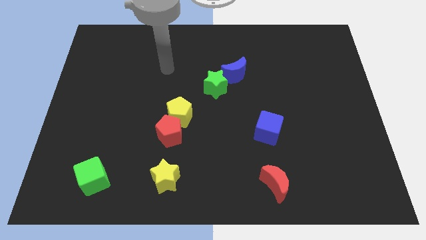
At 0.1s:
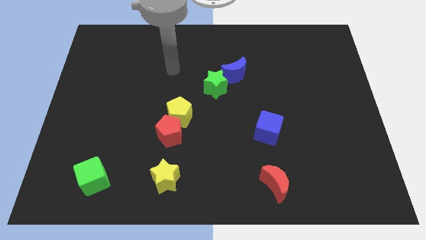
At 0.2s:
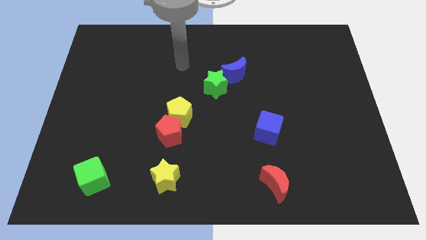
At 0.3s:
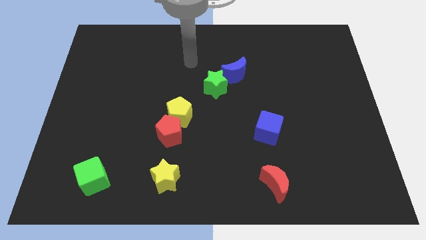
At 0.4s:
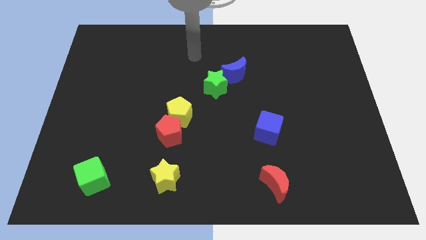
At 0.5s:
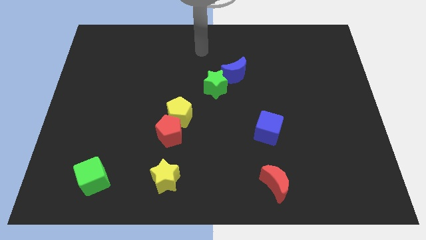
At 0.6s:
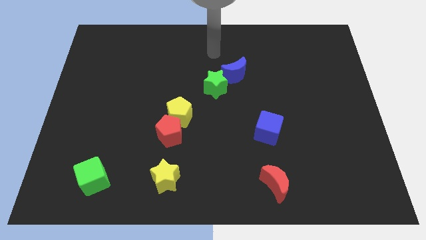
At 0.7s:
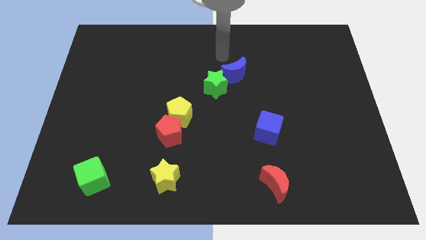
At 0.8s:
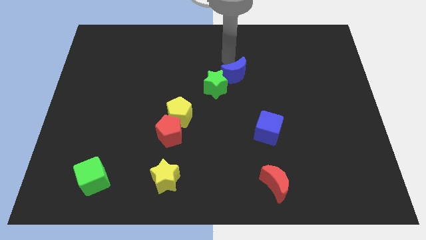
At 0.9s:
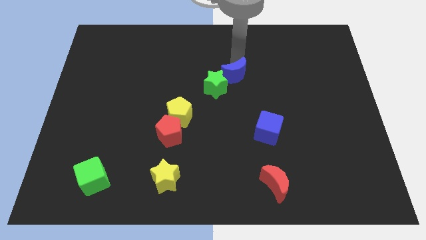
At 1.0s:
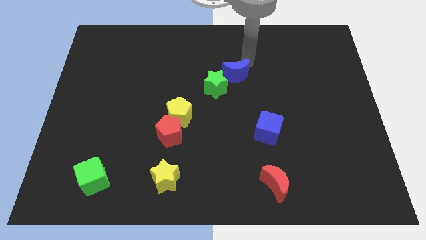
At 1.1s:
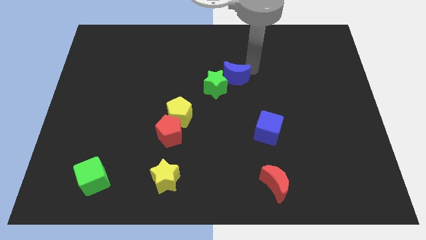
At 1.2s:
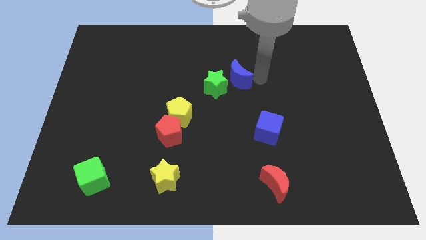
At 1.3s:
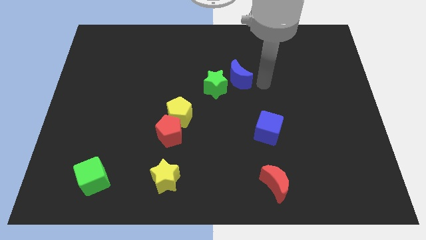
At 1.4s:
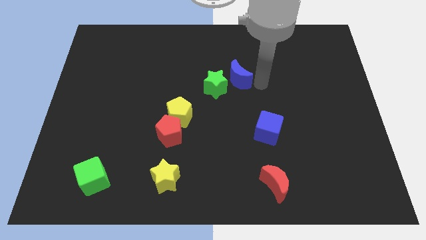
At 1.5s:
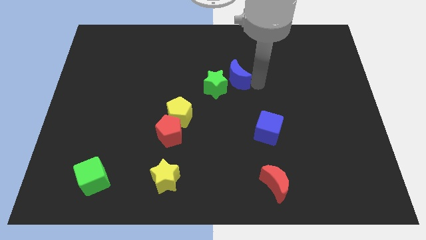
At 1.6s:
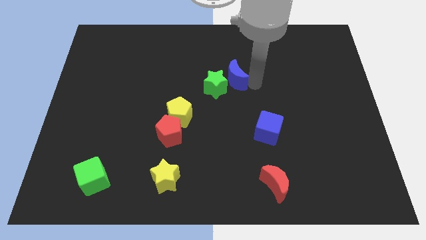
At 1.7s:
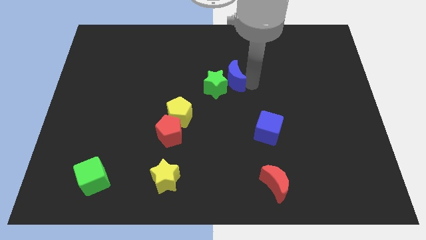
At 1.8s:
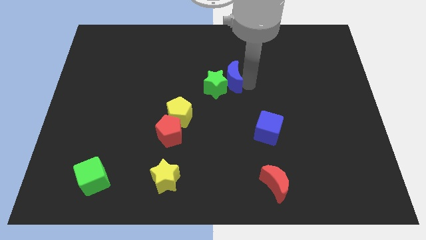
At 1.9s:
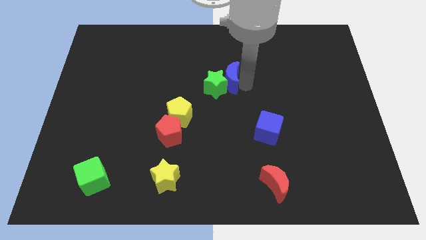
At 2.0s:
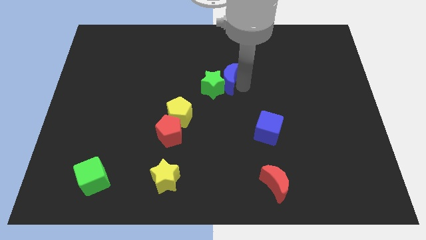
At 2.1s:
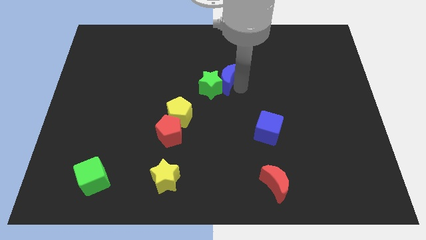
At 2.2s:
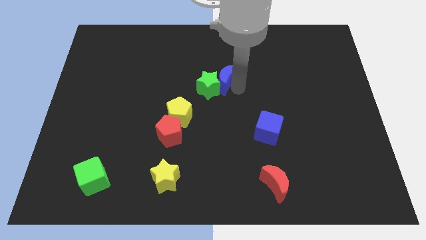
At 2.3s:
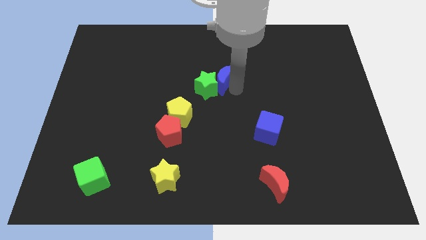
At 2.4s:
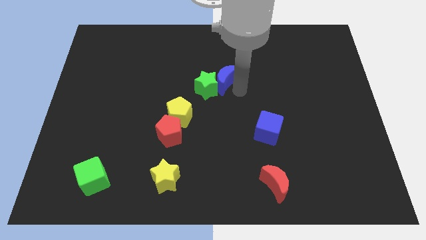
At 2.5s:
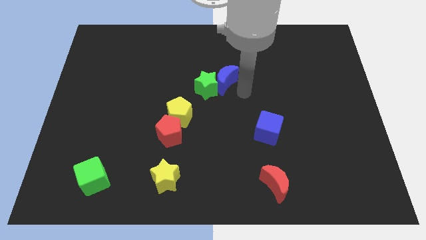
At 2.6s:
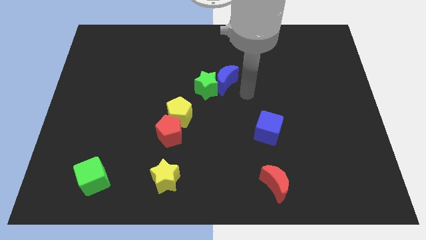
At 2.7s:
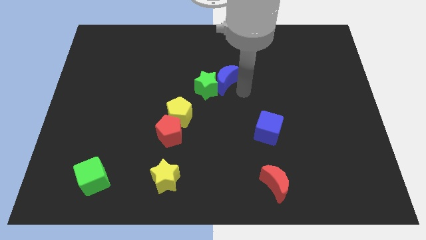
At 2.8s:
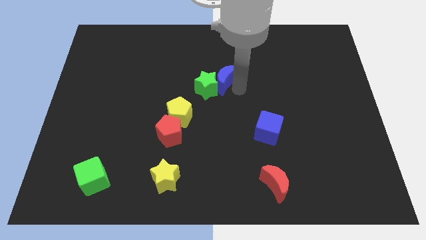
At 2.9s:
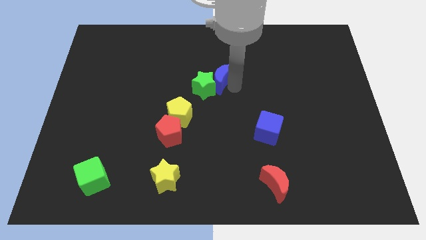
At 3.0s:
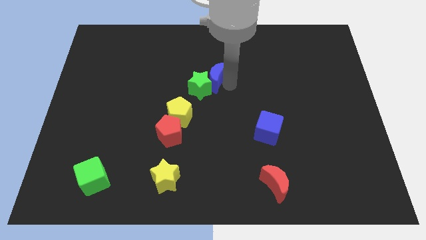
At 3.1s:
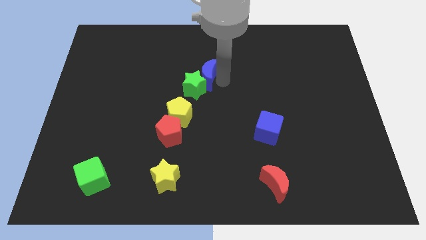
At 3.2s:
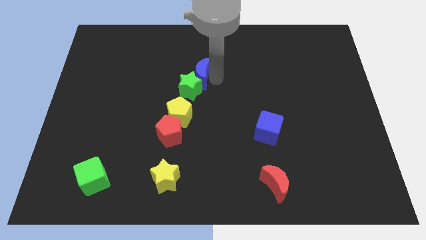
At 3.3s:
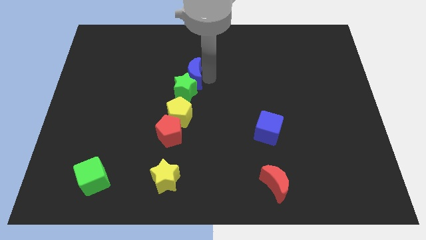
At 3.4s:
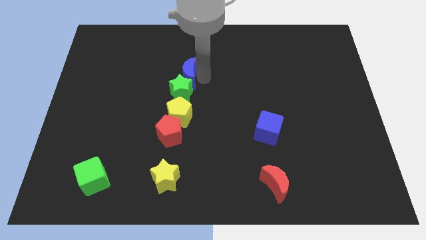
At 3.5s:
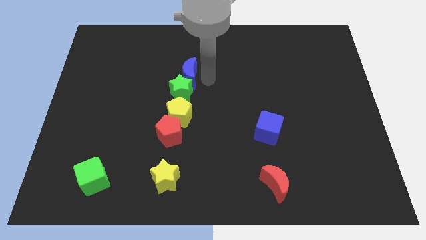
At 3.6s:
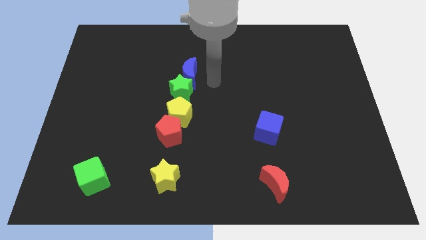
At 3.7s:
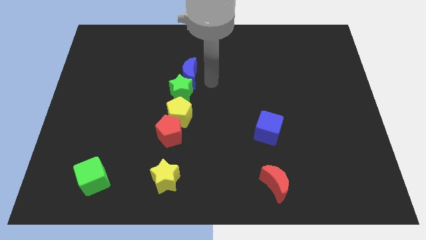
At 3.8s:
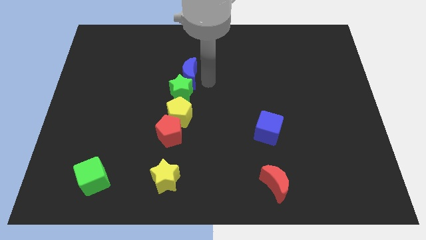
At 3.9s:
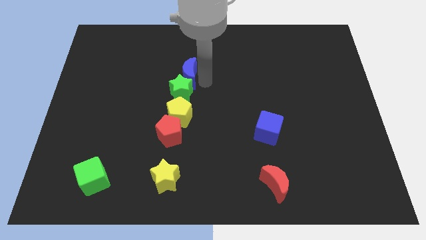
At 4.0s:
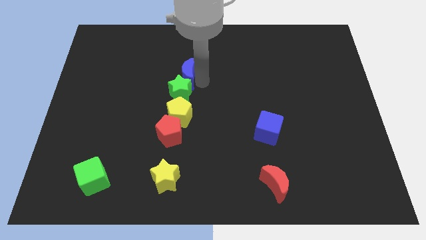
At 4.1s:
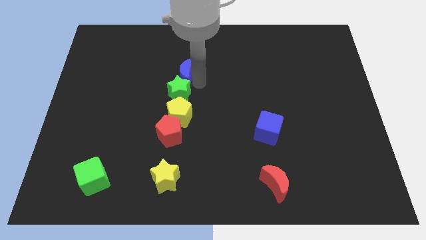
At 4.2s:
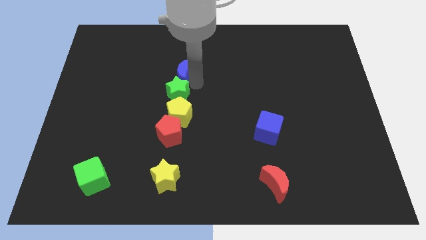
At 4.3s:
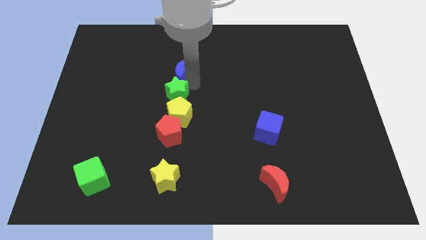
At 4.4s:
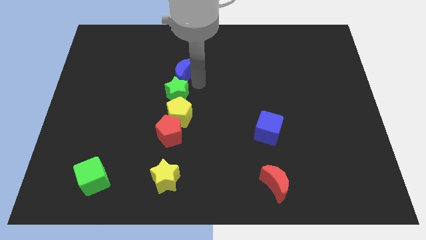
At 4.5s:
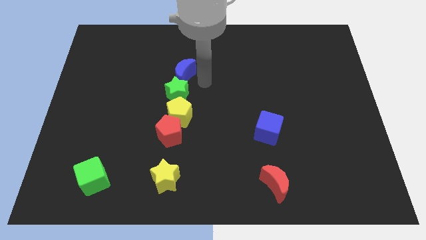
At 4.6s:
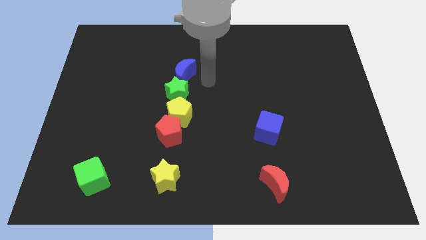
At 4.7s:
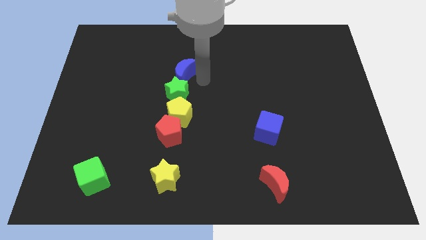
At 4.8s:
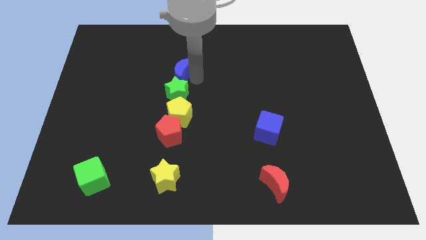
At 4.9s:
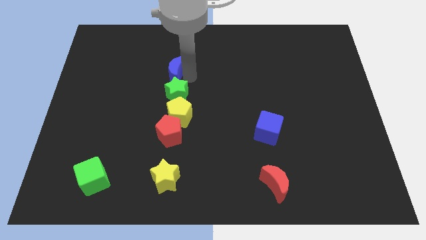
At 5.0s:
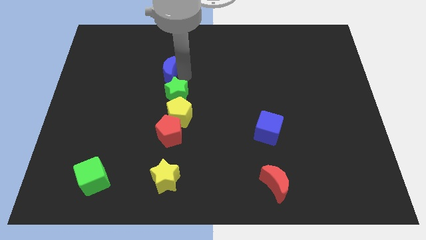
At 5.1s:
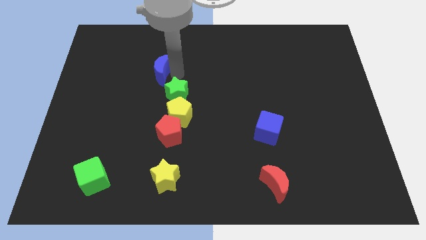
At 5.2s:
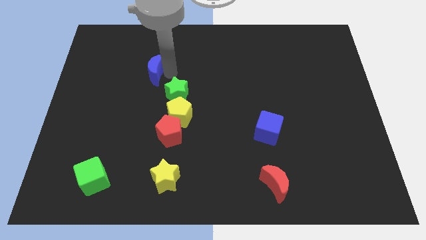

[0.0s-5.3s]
move the blue moon left

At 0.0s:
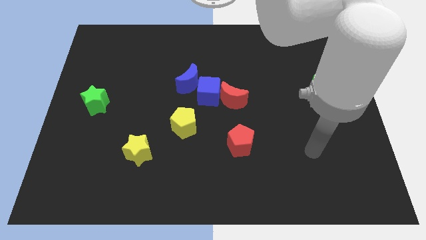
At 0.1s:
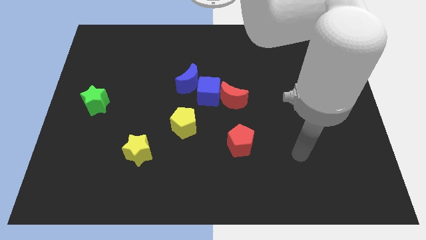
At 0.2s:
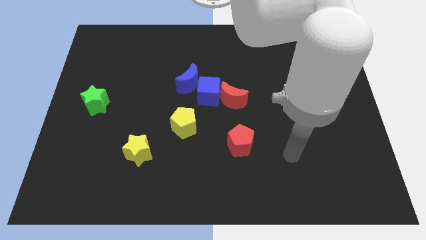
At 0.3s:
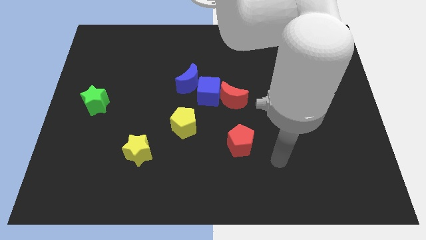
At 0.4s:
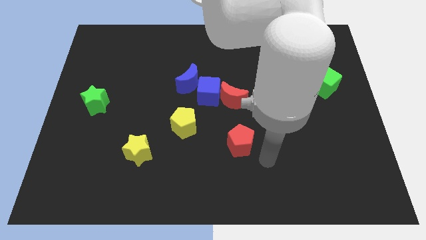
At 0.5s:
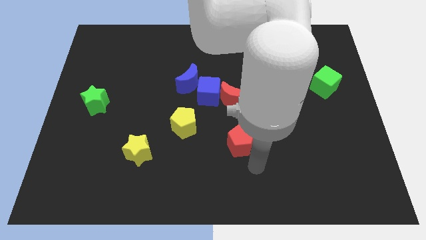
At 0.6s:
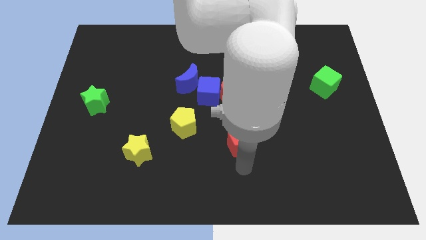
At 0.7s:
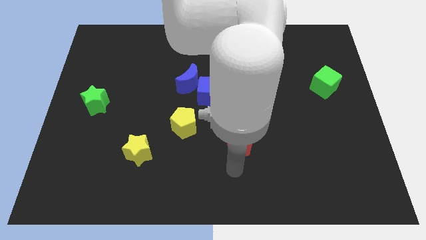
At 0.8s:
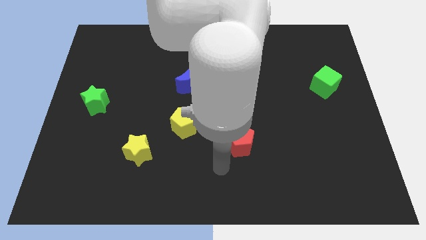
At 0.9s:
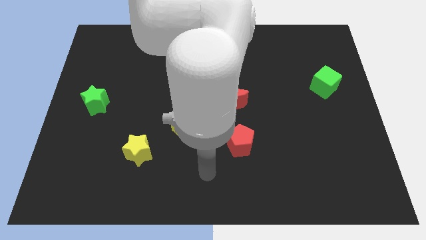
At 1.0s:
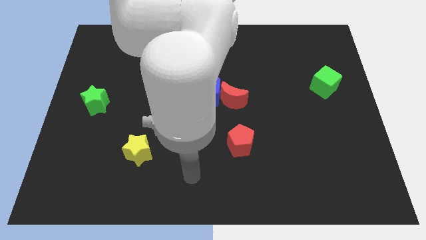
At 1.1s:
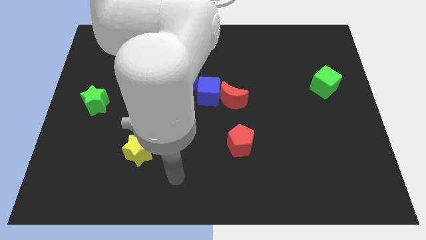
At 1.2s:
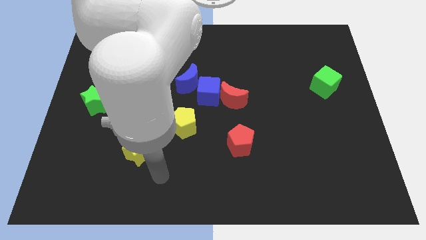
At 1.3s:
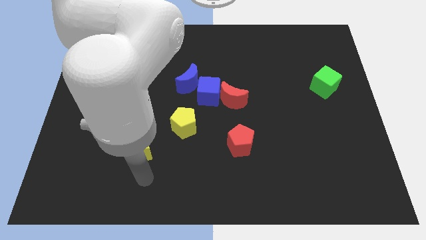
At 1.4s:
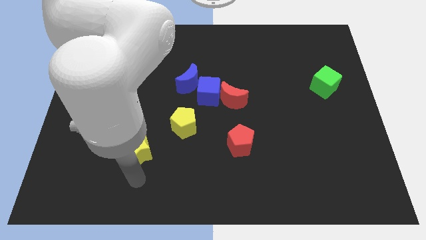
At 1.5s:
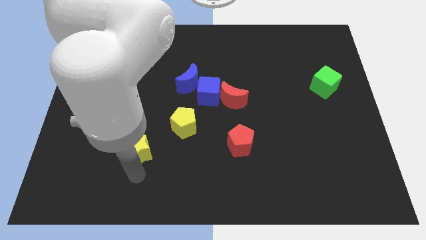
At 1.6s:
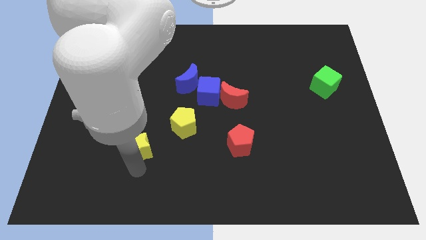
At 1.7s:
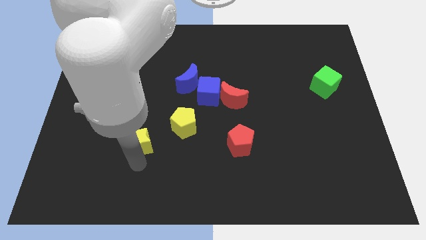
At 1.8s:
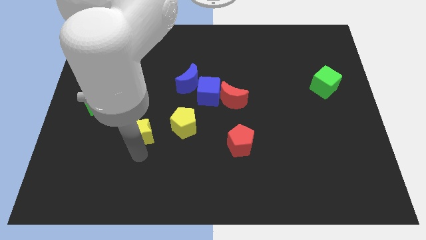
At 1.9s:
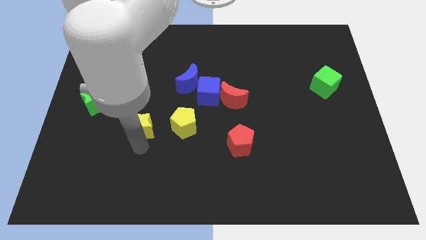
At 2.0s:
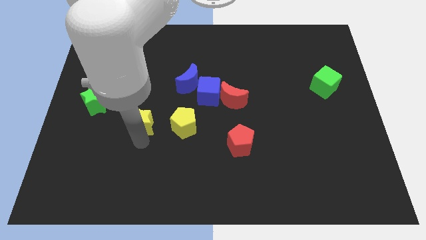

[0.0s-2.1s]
push the yellow star somewhat up

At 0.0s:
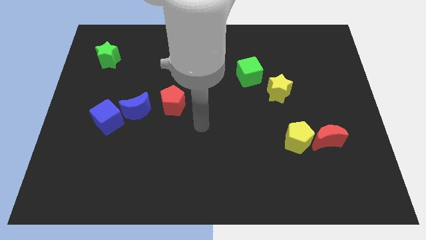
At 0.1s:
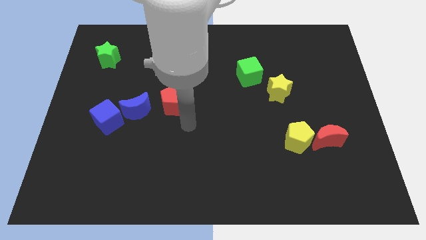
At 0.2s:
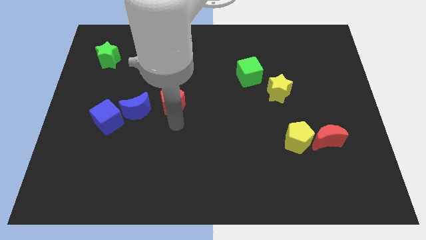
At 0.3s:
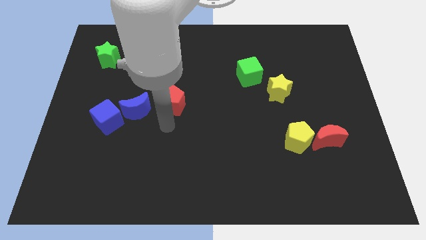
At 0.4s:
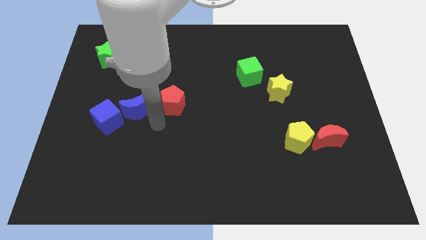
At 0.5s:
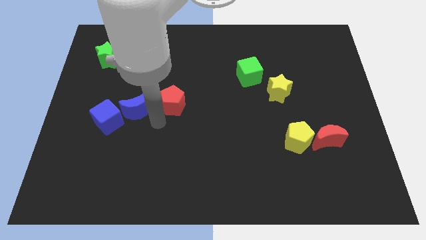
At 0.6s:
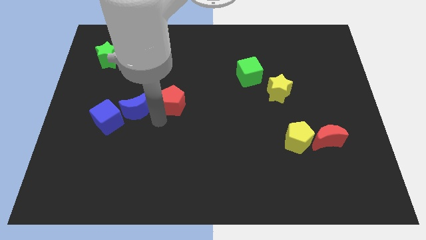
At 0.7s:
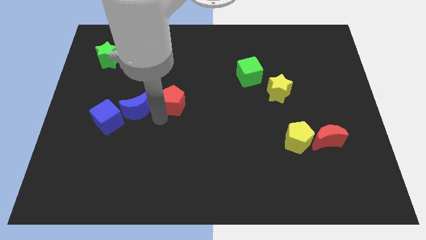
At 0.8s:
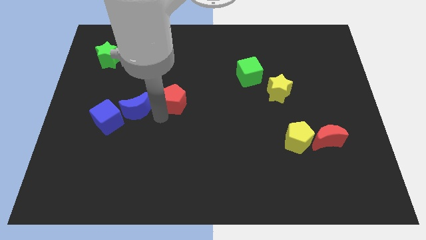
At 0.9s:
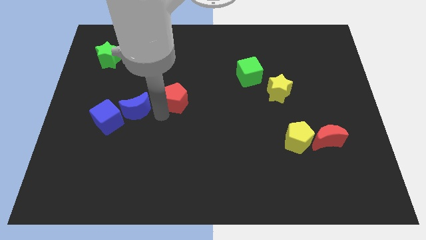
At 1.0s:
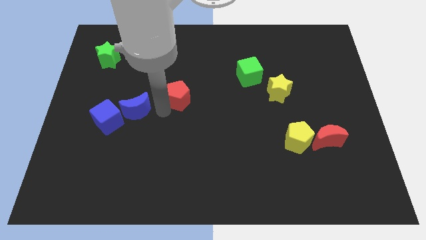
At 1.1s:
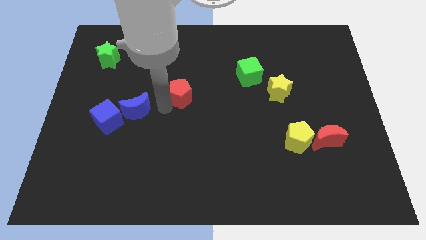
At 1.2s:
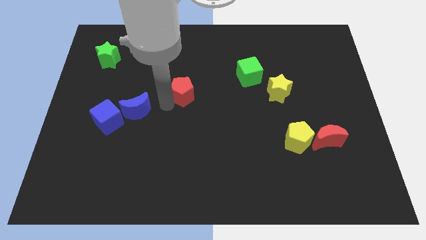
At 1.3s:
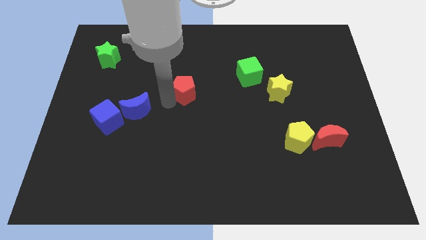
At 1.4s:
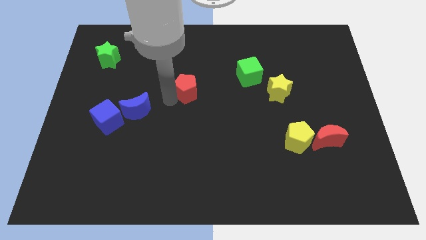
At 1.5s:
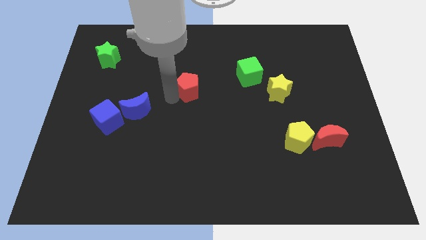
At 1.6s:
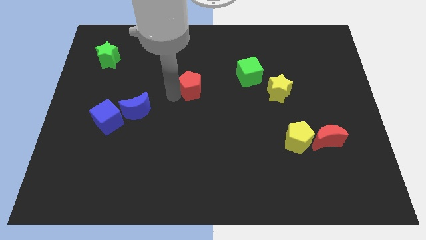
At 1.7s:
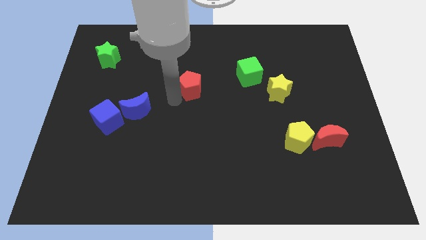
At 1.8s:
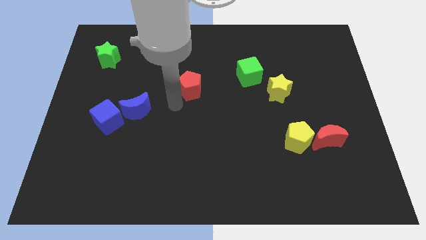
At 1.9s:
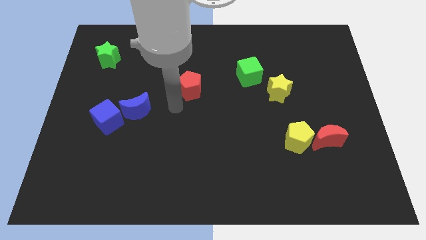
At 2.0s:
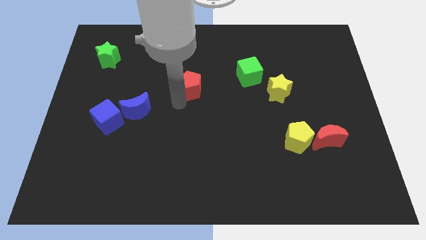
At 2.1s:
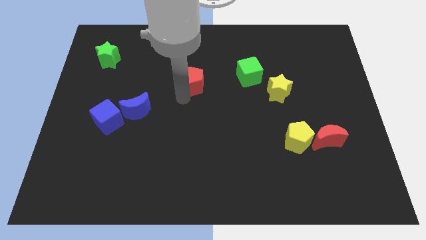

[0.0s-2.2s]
slightly slide the red pentagon upwards and then to the right
